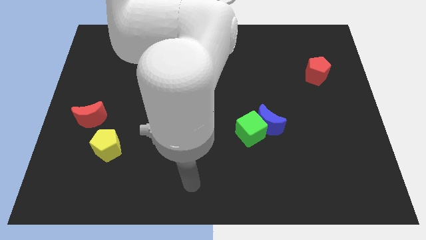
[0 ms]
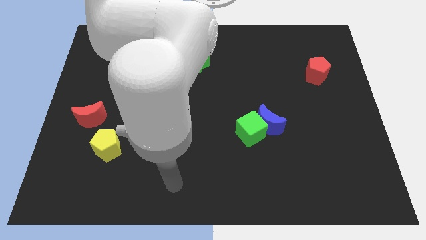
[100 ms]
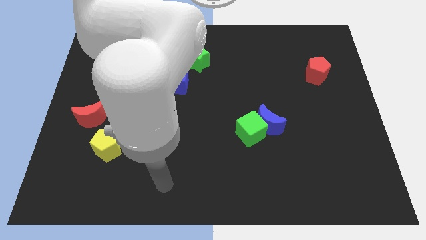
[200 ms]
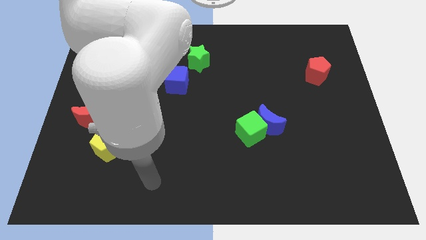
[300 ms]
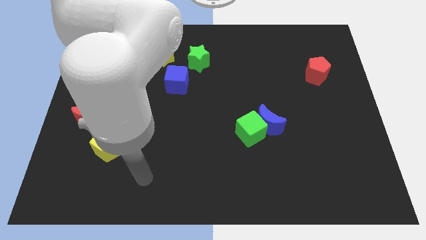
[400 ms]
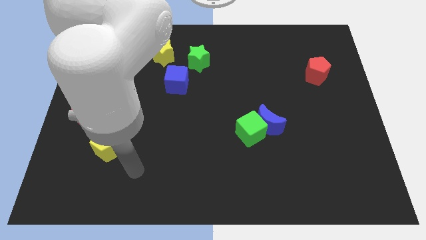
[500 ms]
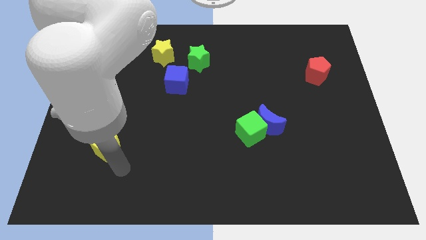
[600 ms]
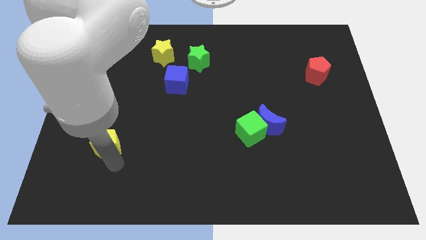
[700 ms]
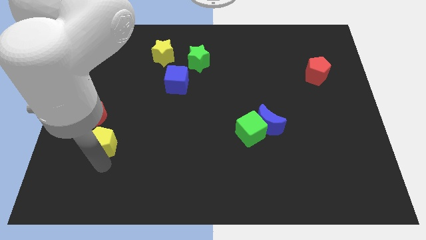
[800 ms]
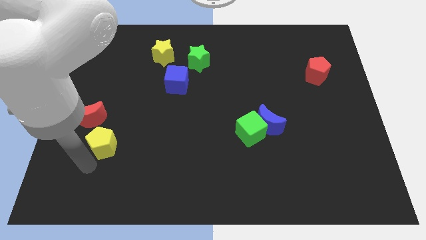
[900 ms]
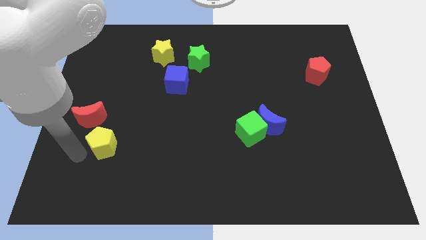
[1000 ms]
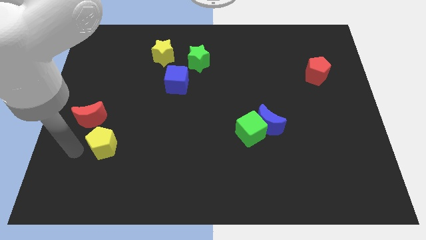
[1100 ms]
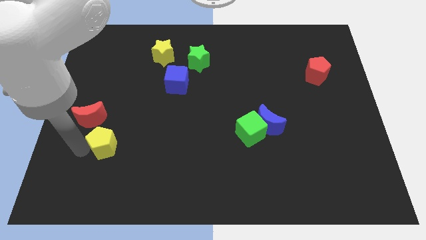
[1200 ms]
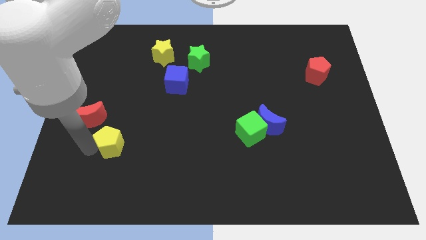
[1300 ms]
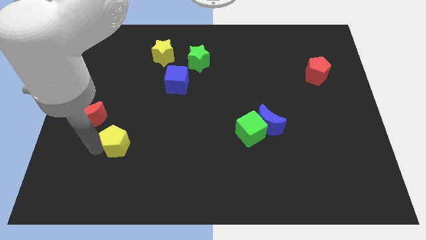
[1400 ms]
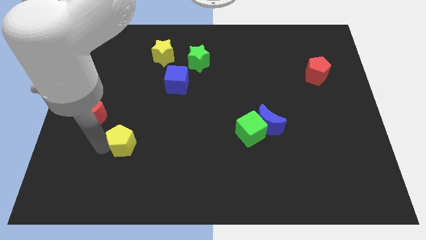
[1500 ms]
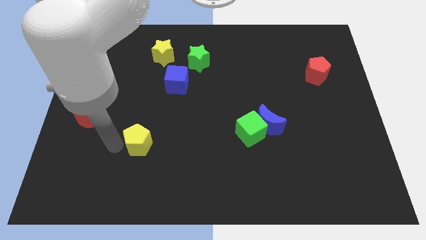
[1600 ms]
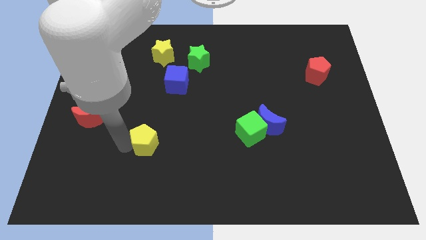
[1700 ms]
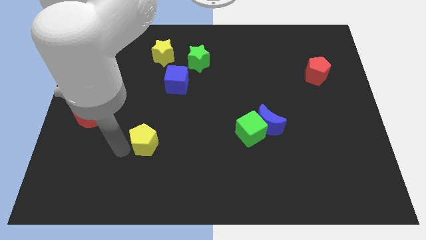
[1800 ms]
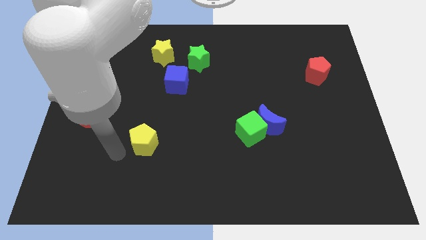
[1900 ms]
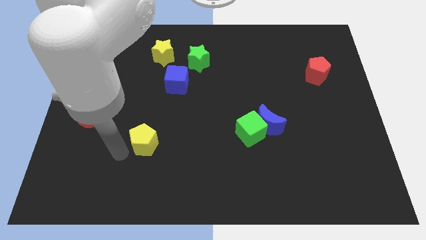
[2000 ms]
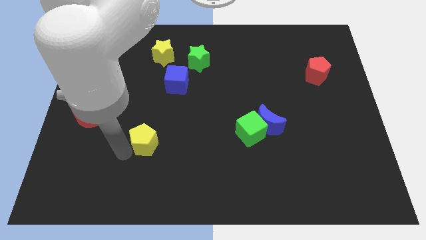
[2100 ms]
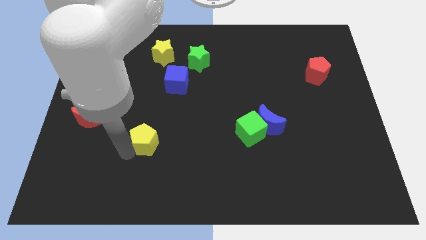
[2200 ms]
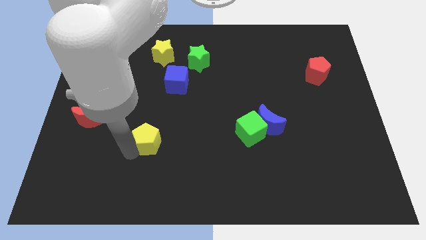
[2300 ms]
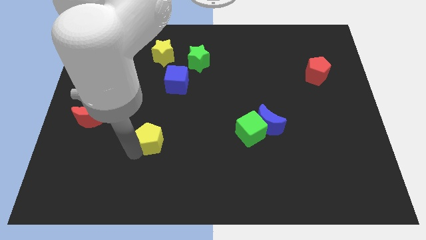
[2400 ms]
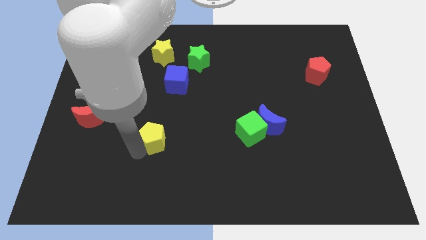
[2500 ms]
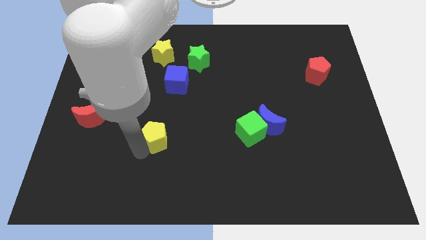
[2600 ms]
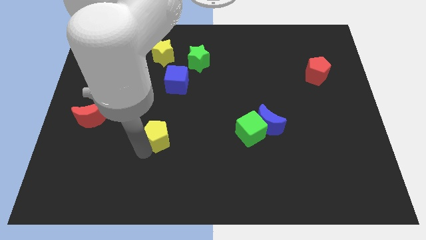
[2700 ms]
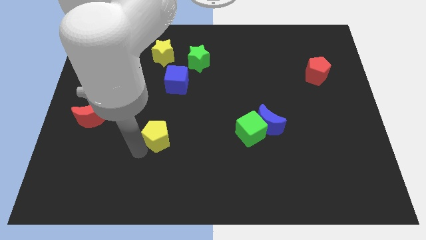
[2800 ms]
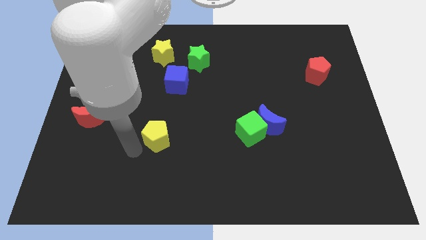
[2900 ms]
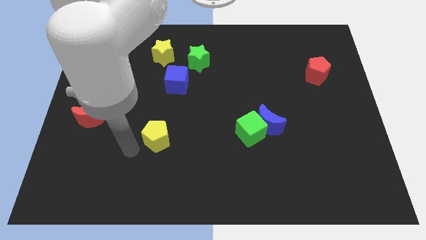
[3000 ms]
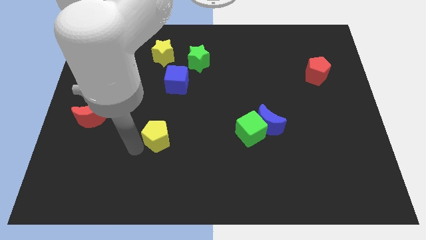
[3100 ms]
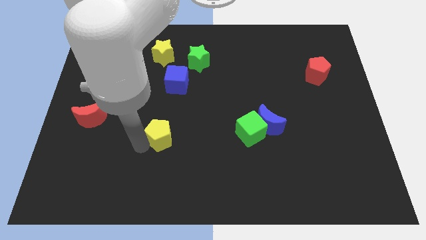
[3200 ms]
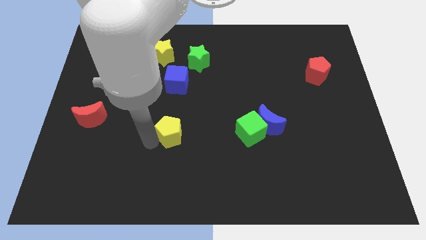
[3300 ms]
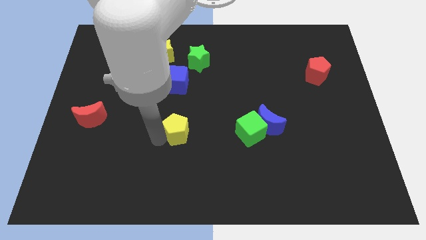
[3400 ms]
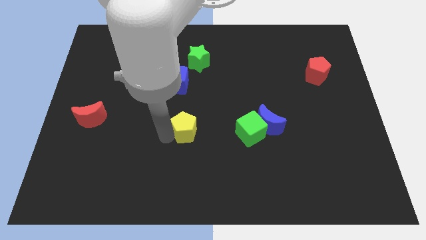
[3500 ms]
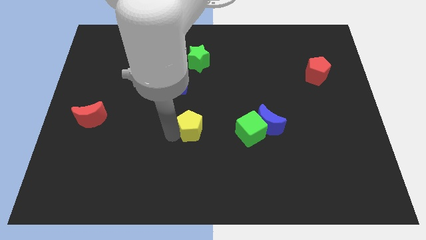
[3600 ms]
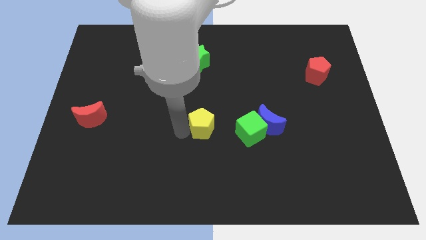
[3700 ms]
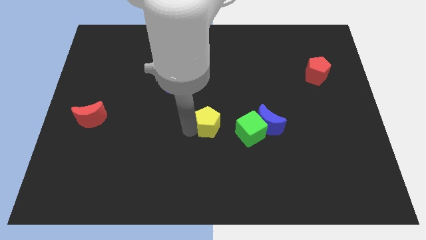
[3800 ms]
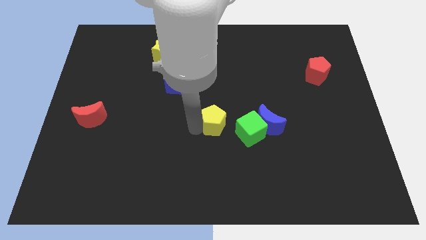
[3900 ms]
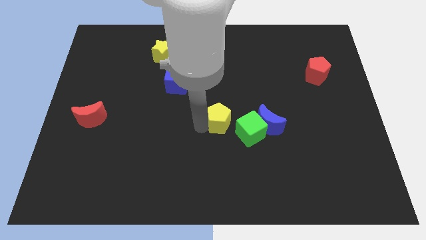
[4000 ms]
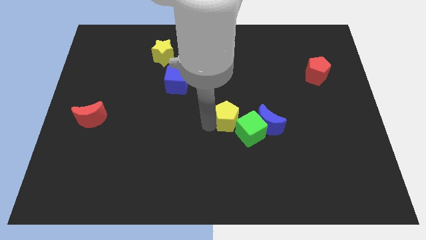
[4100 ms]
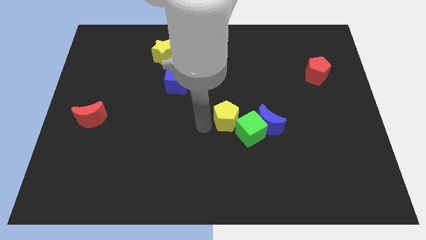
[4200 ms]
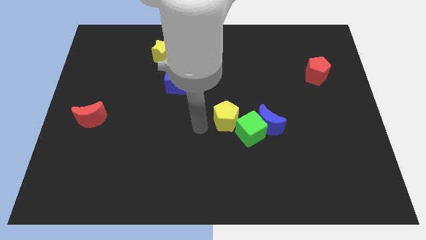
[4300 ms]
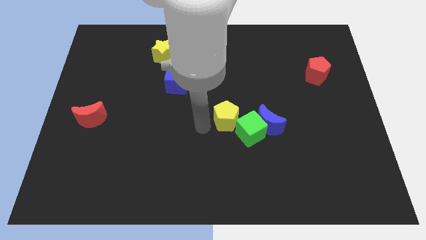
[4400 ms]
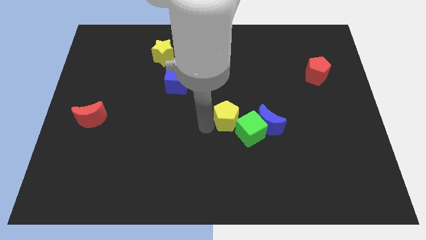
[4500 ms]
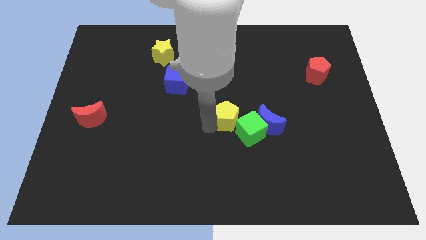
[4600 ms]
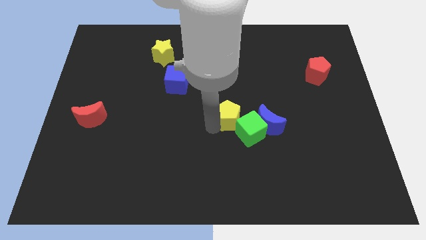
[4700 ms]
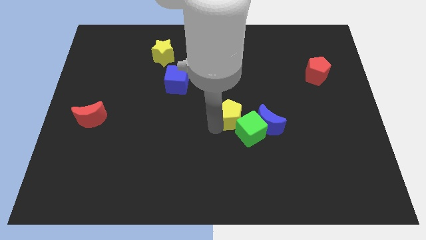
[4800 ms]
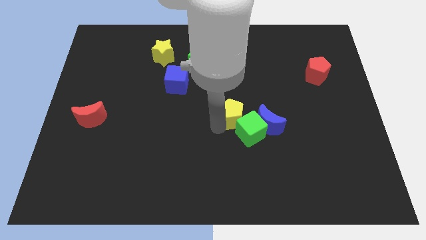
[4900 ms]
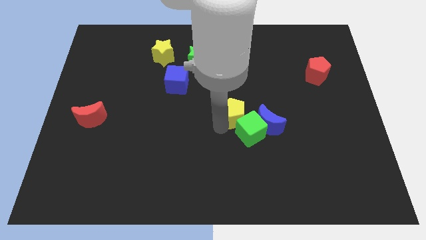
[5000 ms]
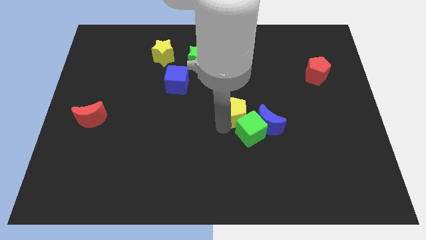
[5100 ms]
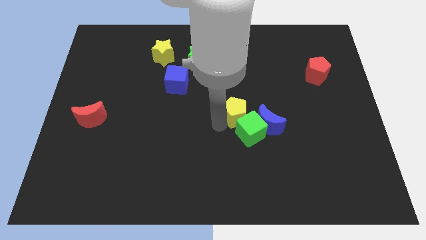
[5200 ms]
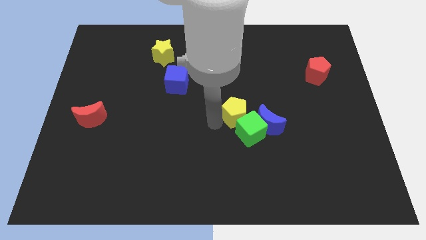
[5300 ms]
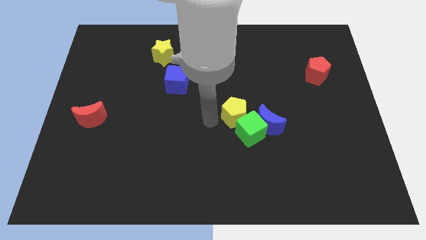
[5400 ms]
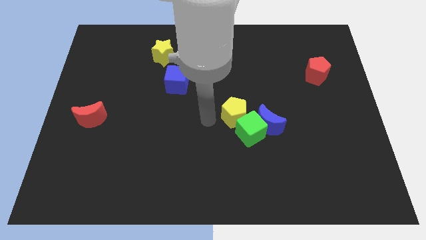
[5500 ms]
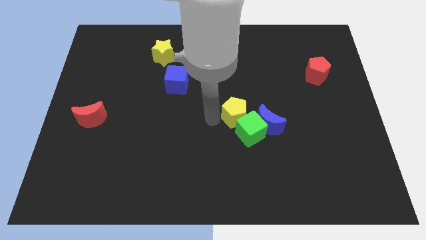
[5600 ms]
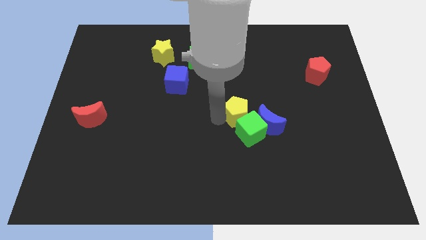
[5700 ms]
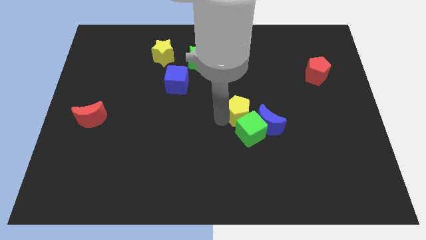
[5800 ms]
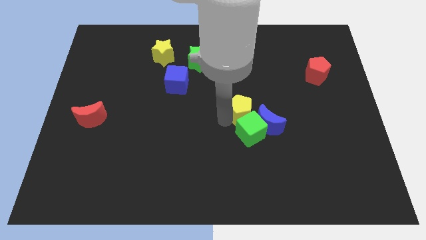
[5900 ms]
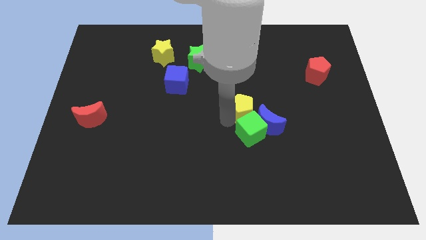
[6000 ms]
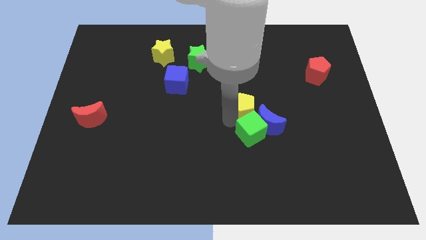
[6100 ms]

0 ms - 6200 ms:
push the yellow pentagon to the top right of the green cube

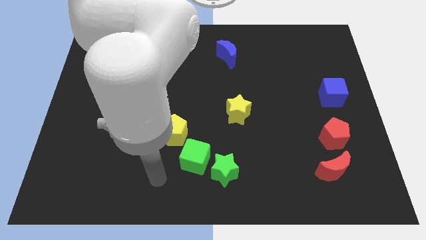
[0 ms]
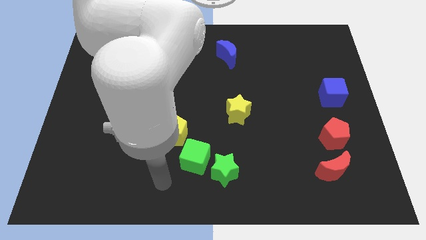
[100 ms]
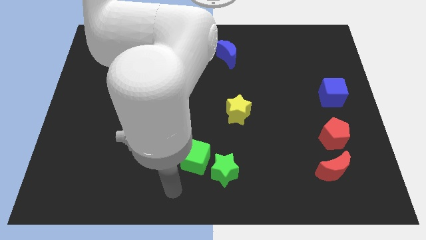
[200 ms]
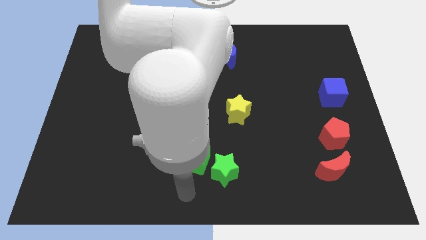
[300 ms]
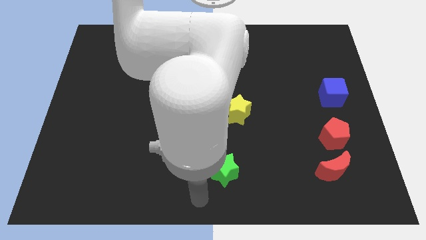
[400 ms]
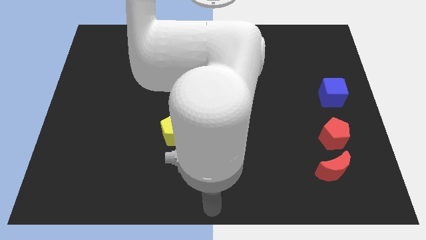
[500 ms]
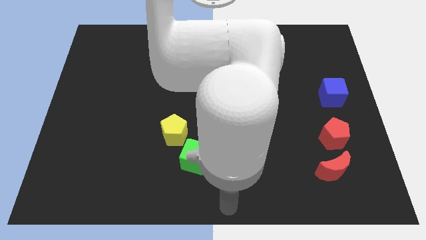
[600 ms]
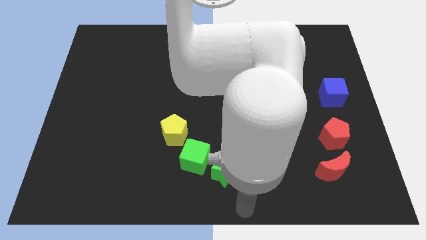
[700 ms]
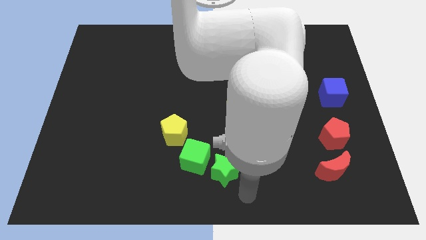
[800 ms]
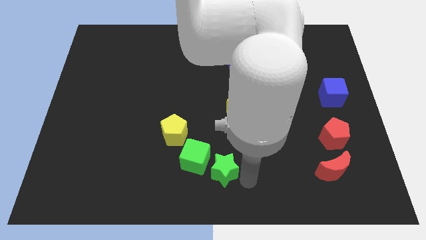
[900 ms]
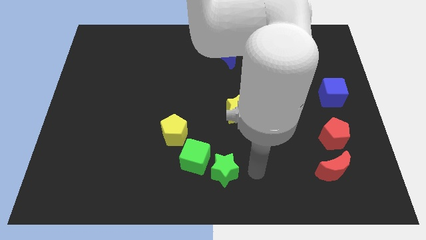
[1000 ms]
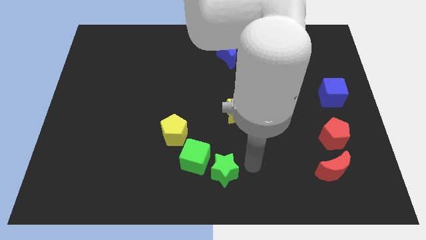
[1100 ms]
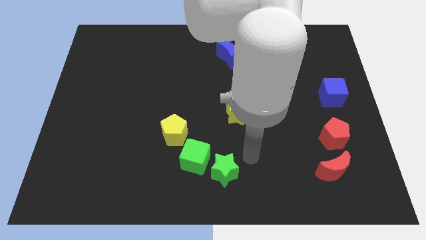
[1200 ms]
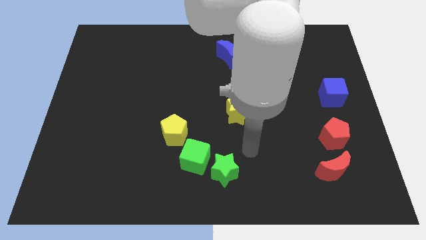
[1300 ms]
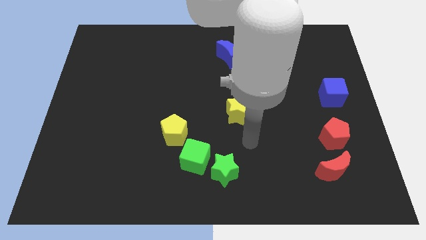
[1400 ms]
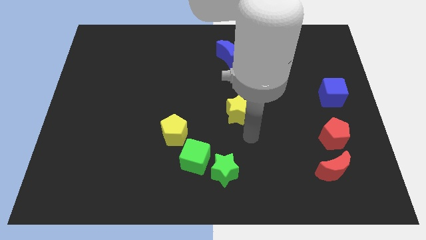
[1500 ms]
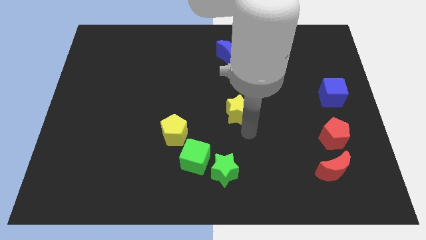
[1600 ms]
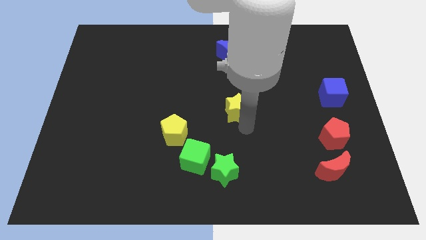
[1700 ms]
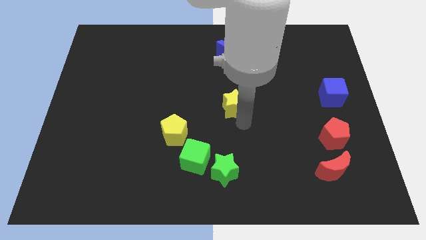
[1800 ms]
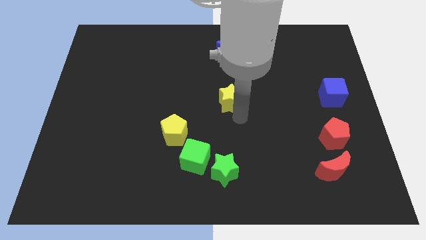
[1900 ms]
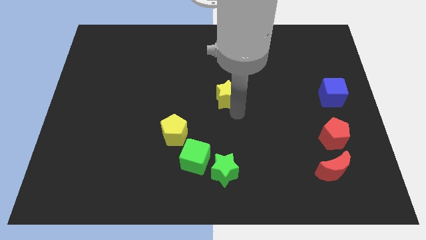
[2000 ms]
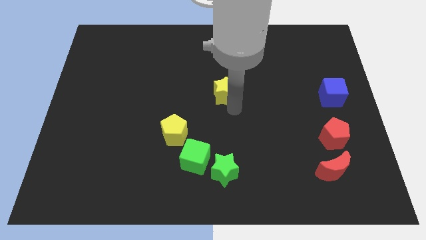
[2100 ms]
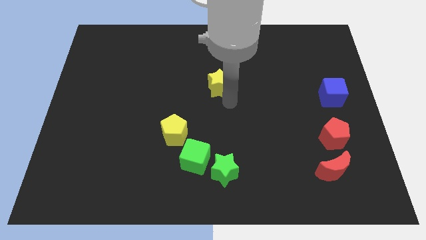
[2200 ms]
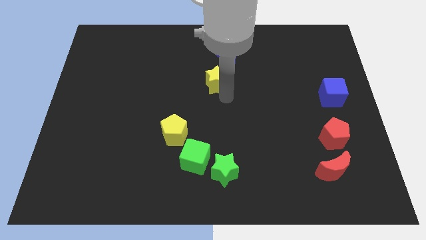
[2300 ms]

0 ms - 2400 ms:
put the yellow star to the bottom left of the blue moon
